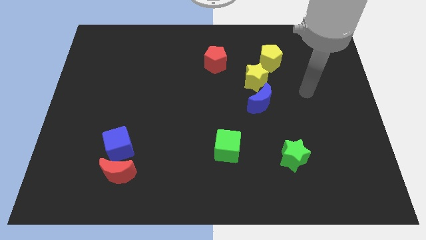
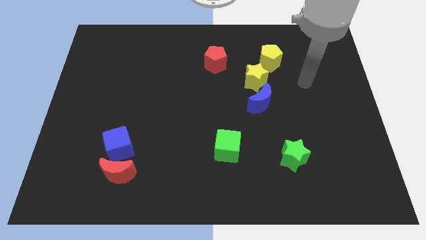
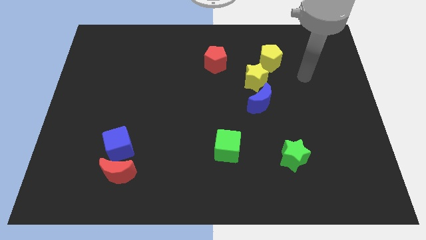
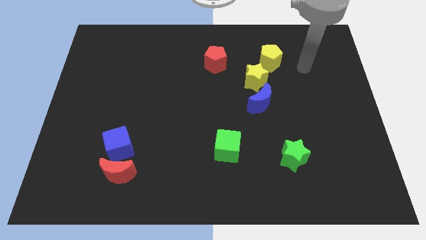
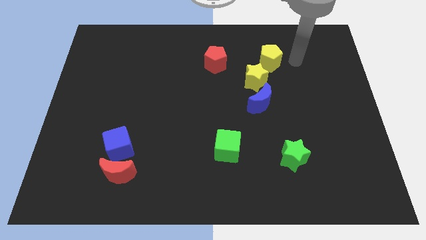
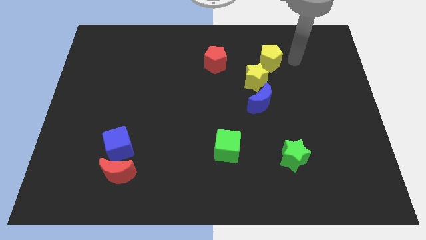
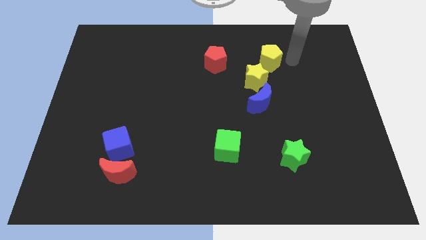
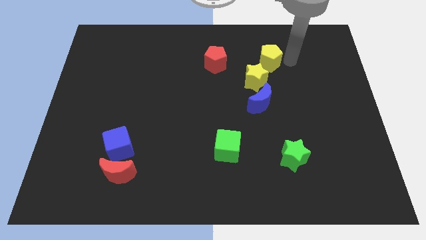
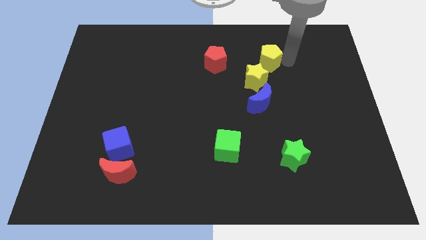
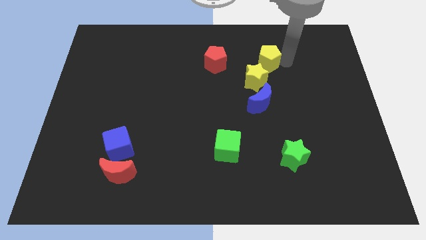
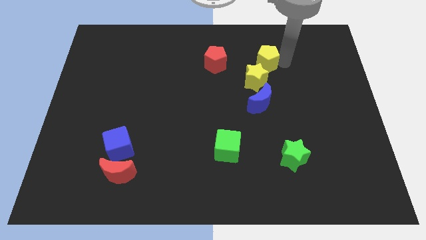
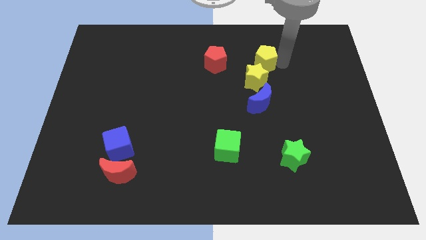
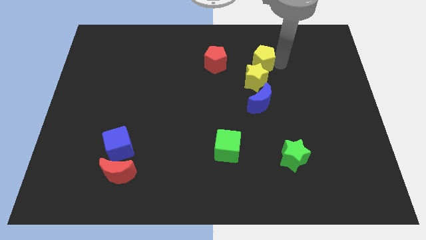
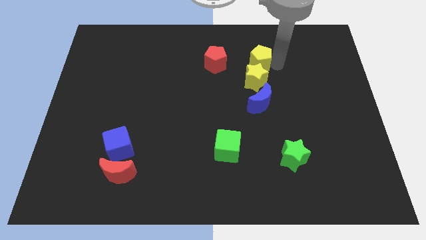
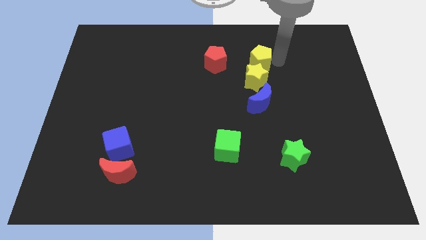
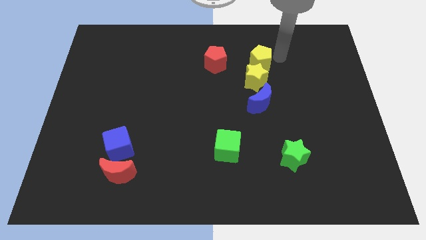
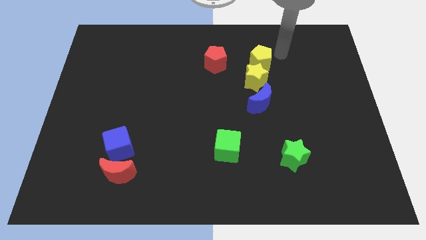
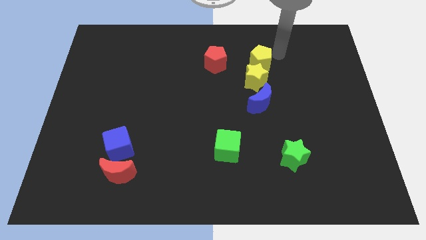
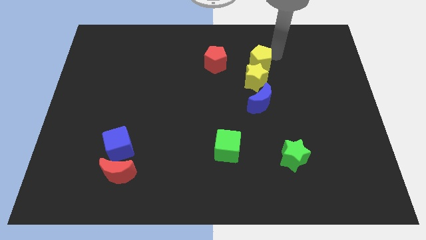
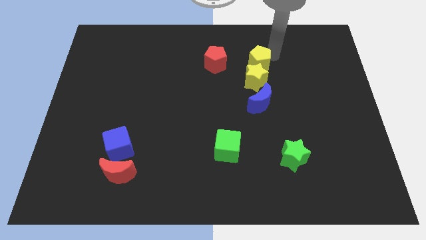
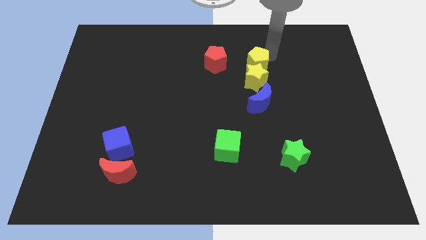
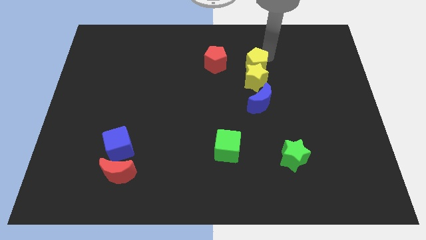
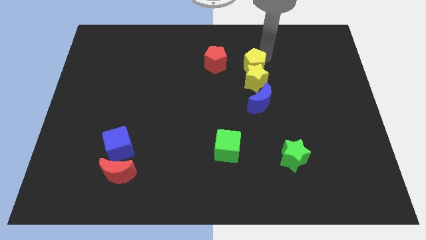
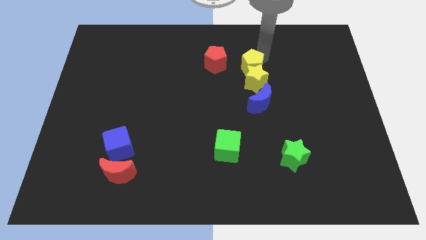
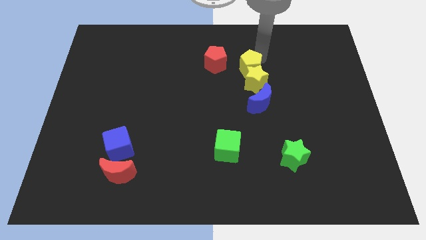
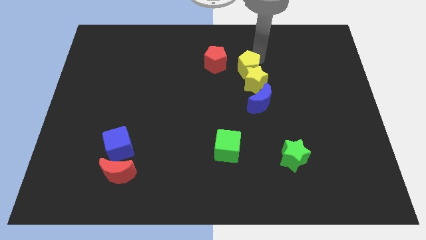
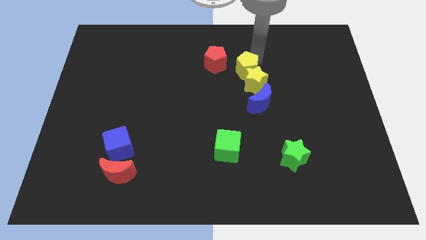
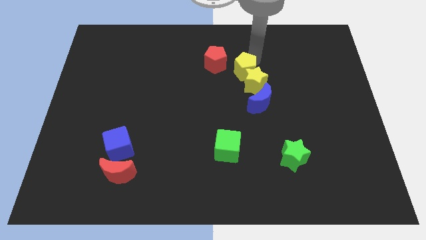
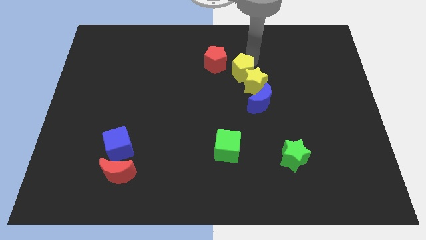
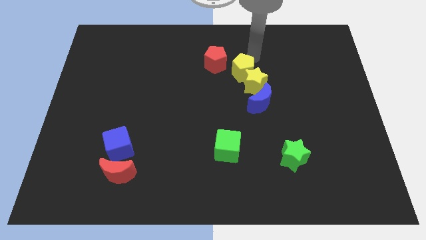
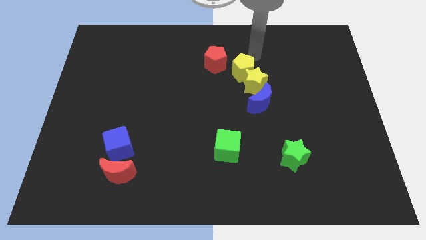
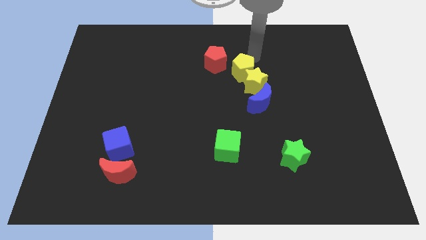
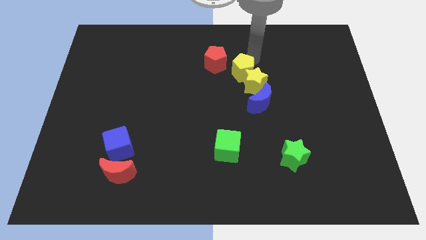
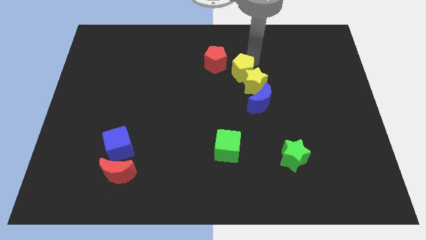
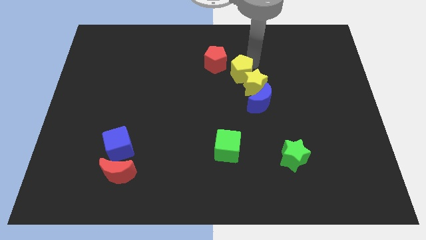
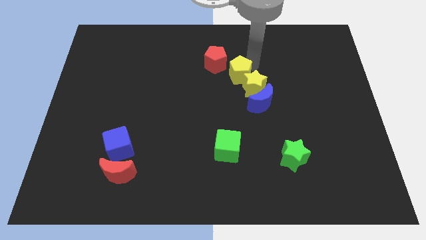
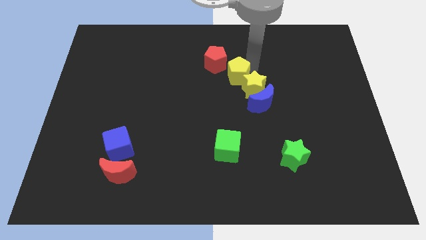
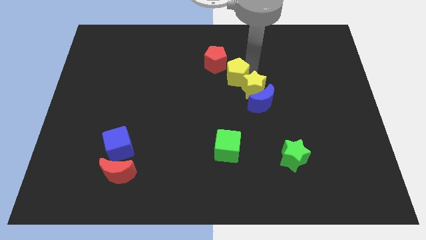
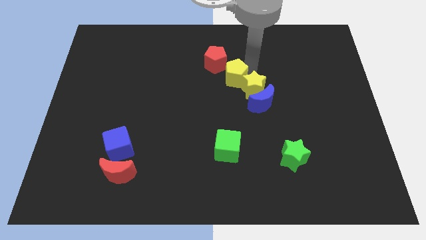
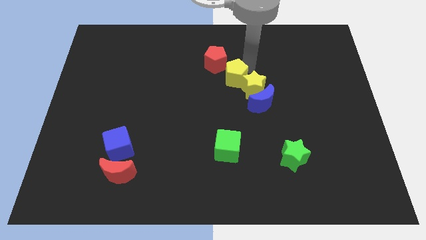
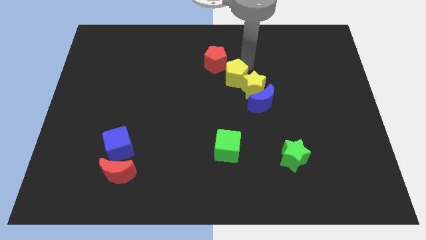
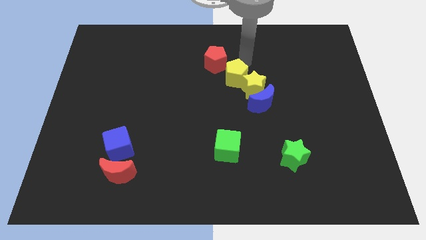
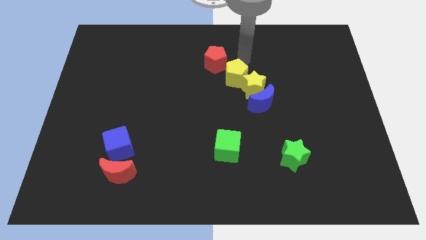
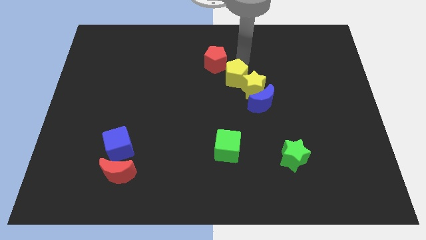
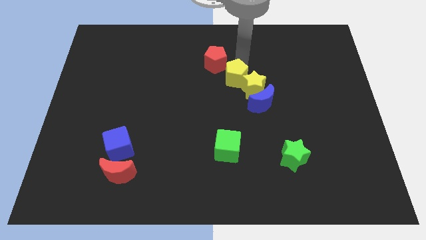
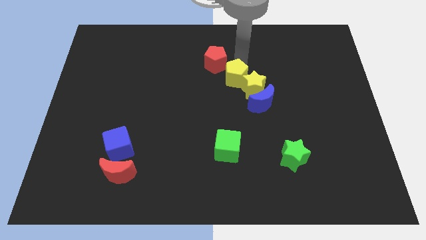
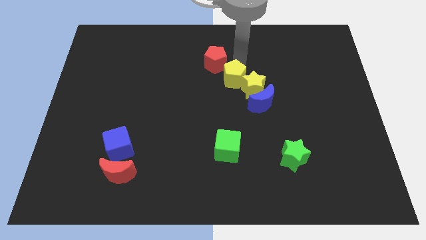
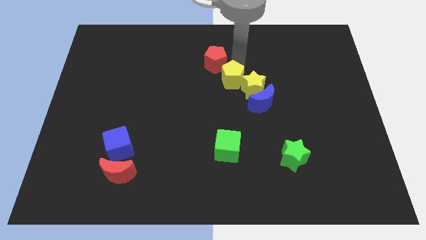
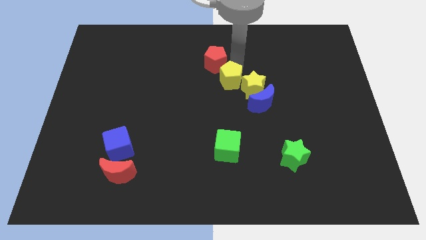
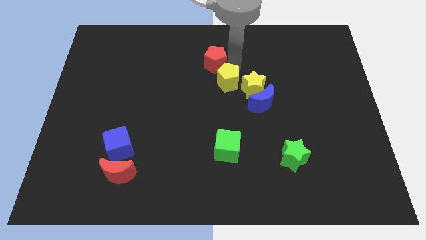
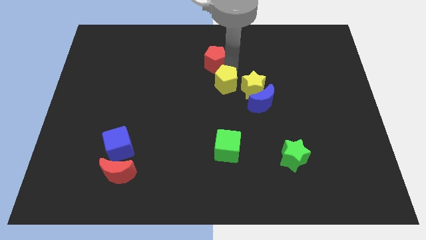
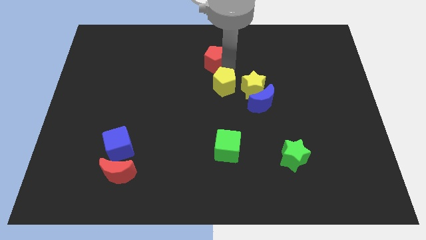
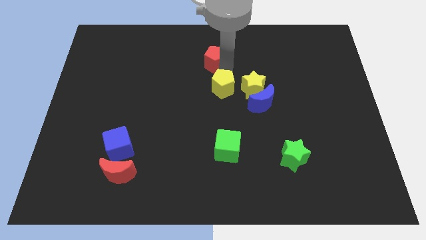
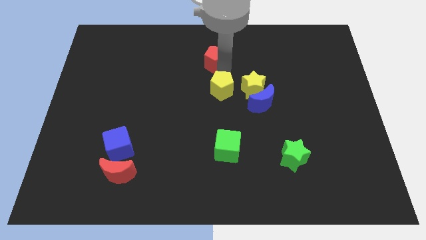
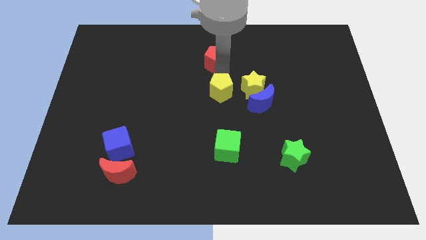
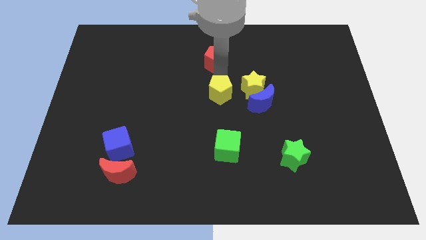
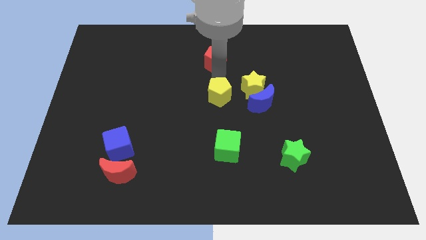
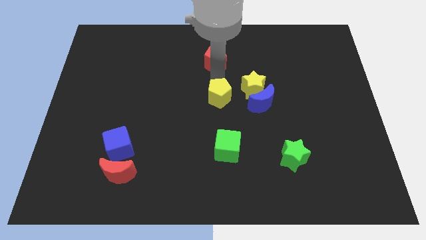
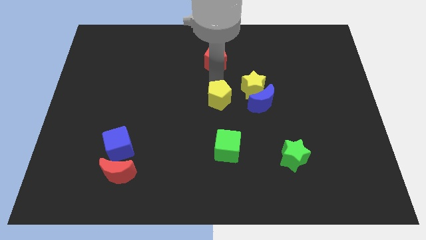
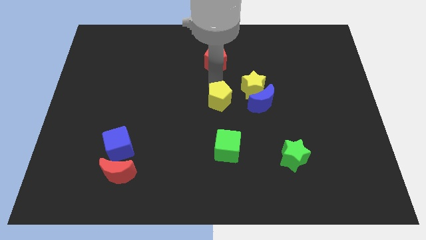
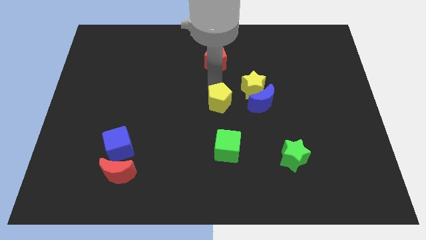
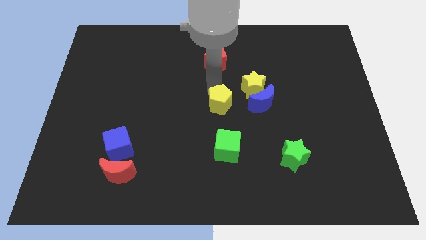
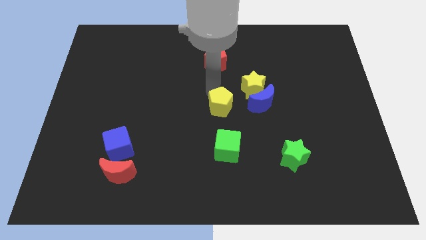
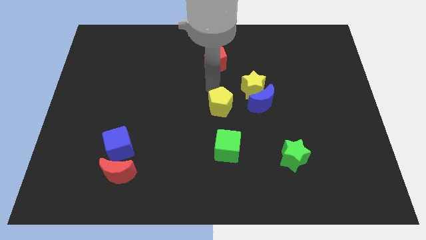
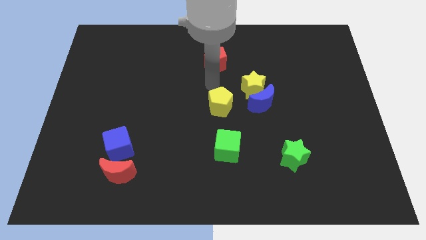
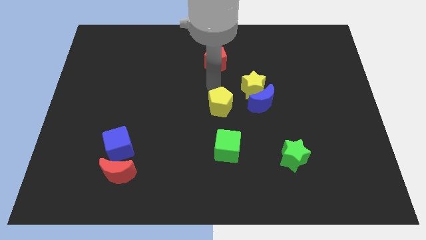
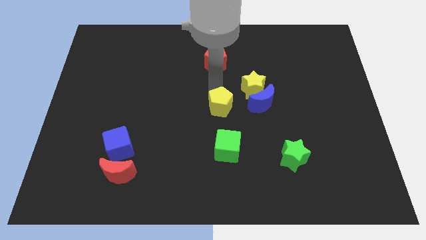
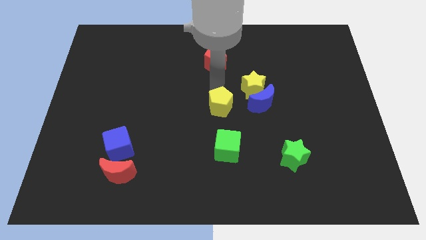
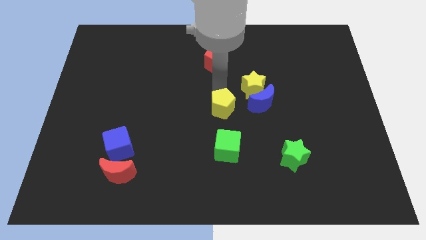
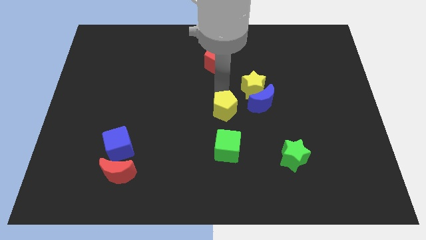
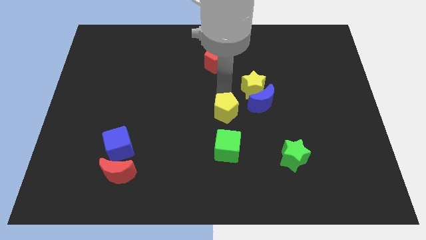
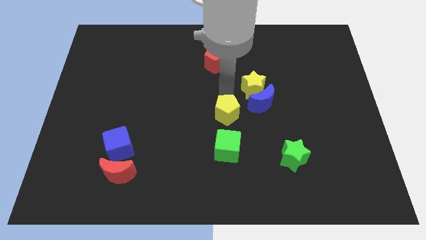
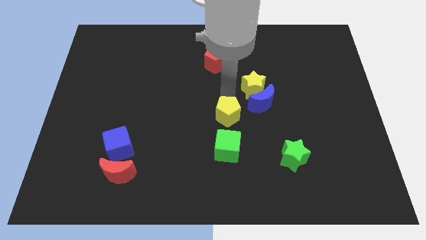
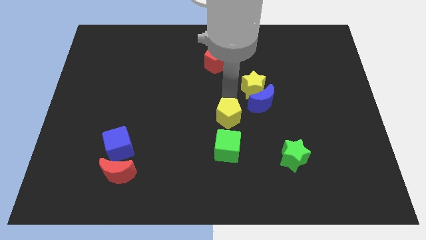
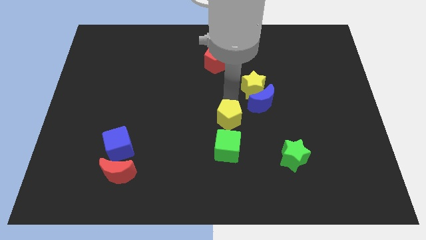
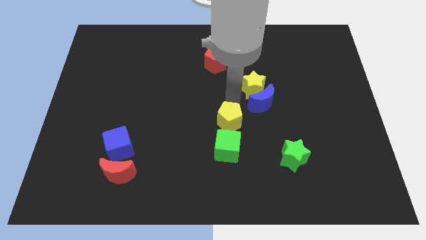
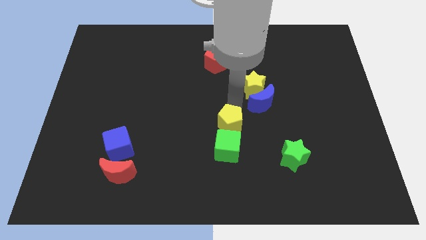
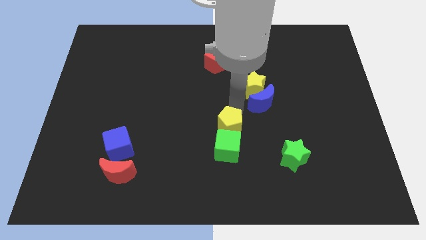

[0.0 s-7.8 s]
slide the yellow pentagon to the green cube
